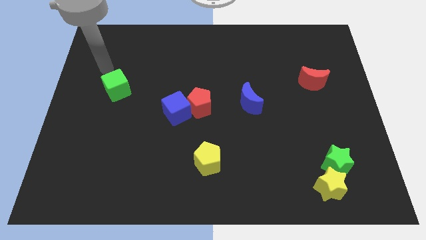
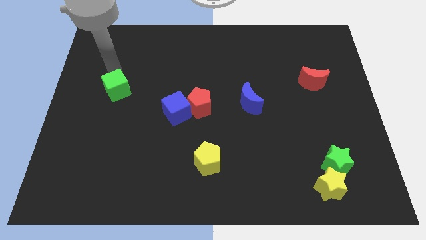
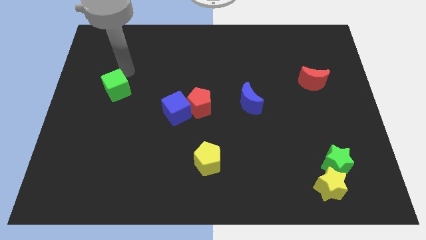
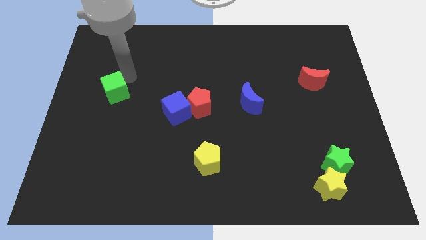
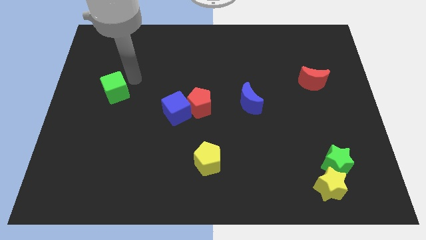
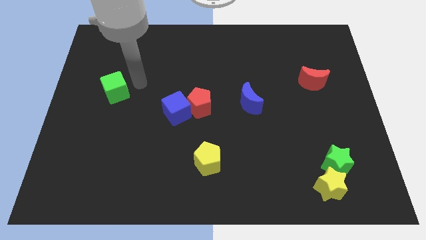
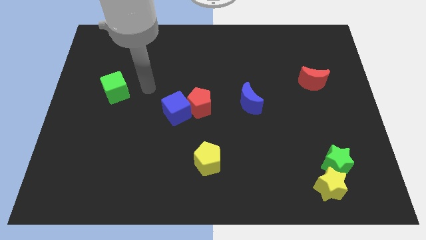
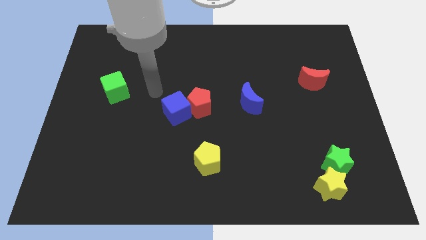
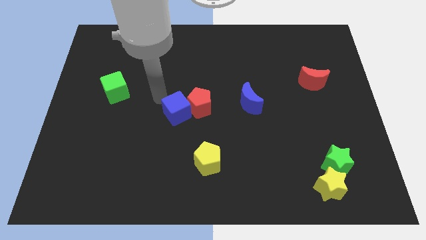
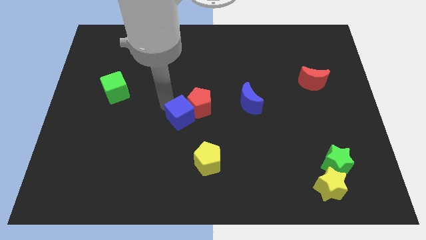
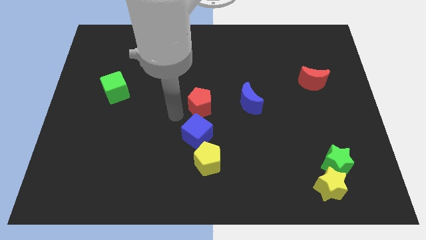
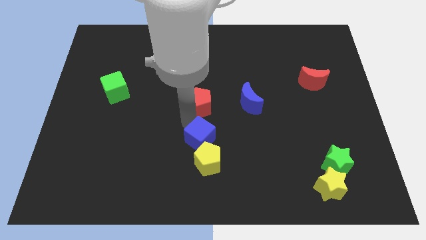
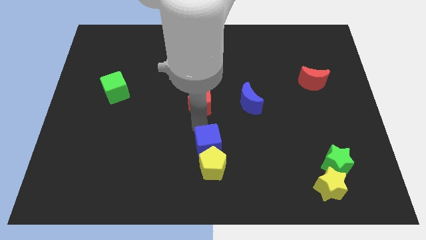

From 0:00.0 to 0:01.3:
pull the red pentagon apart from the blue cube

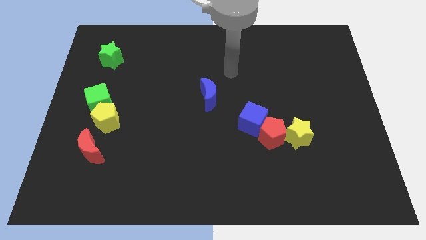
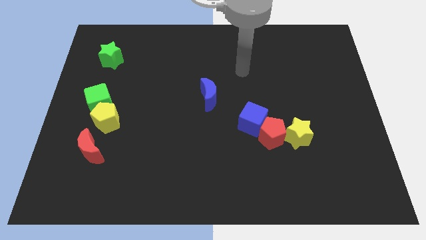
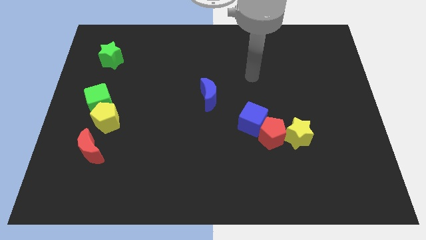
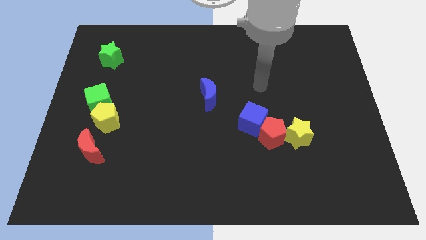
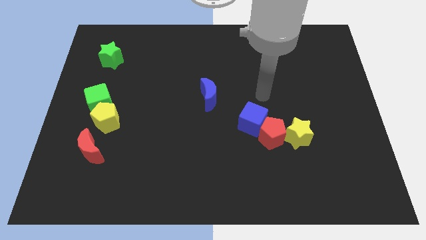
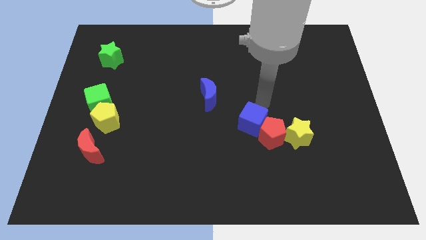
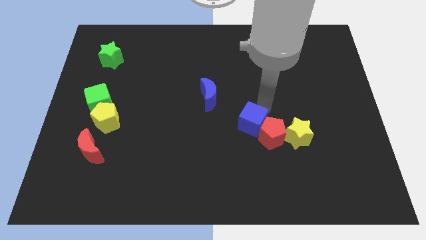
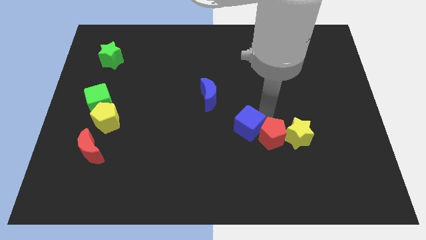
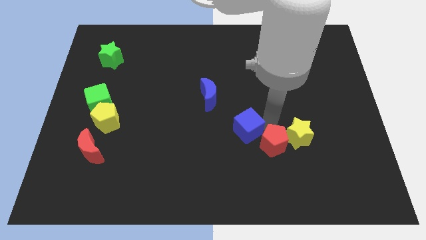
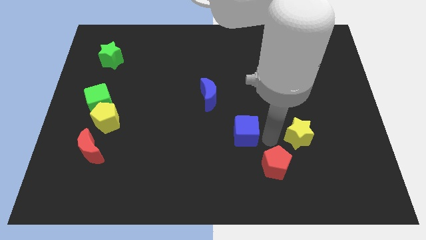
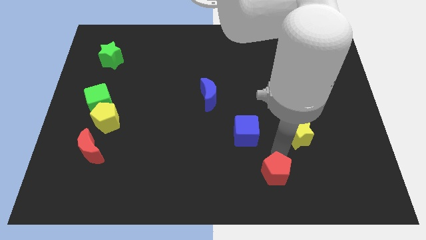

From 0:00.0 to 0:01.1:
separate the yellow star from the red pentagon

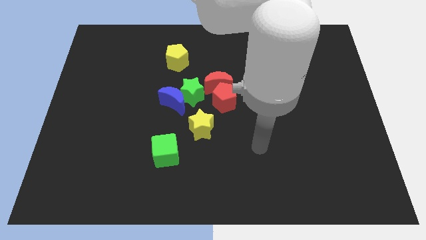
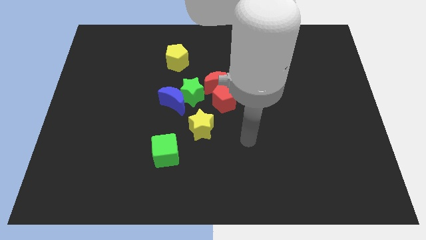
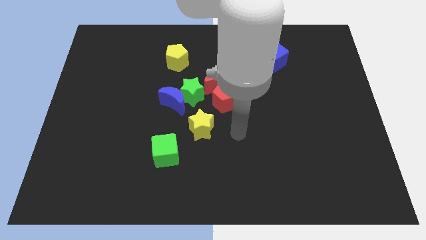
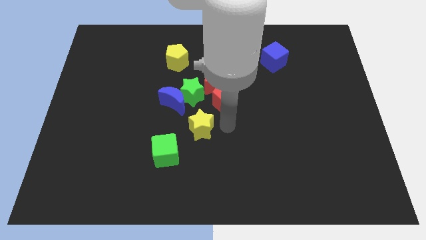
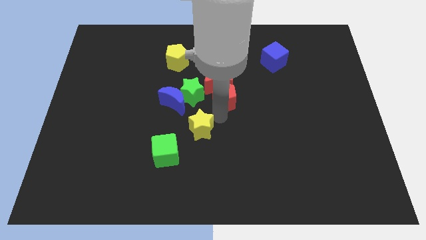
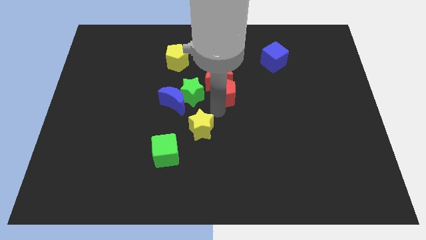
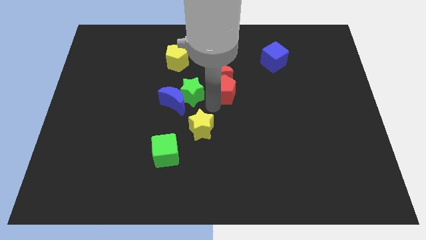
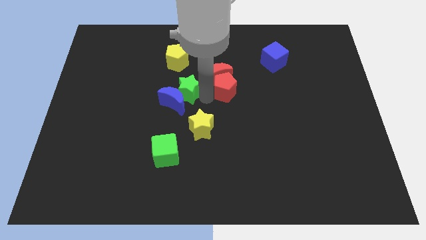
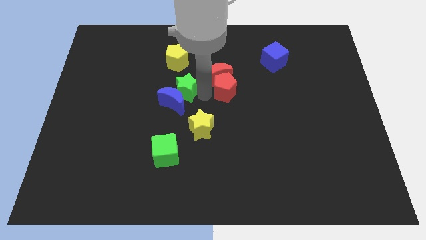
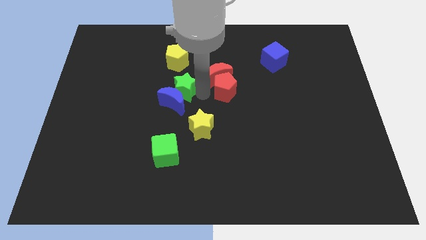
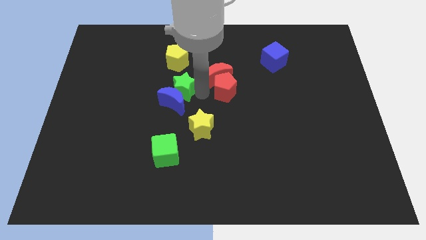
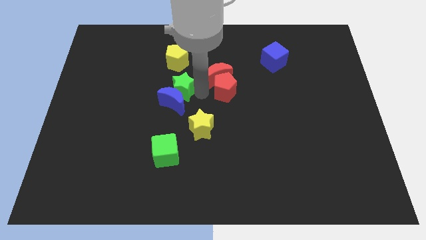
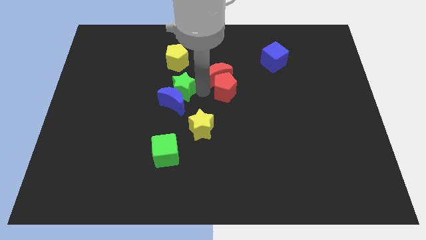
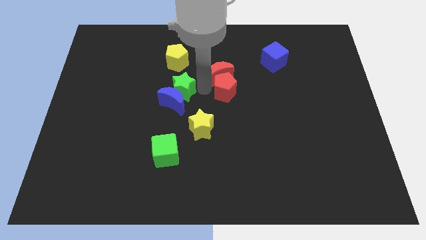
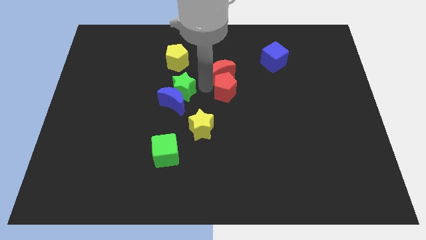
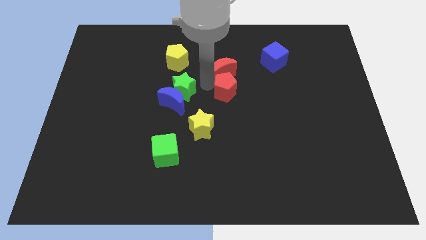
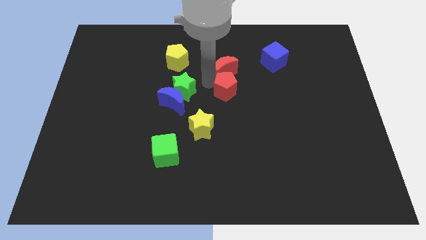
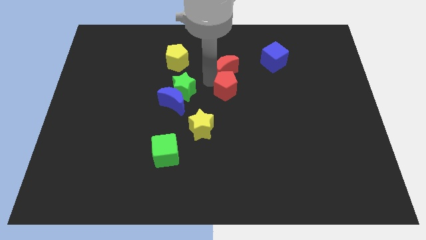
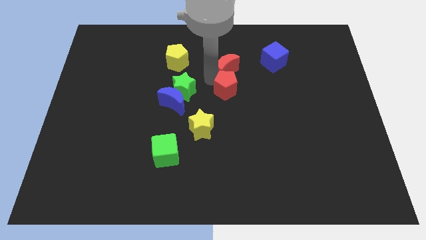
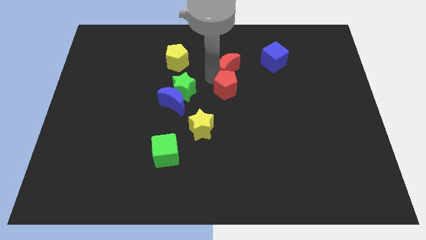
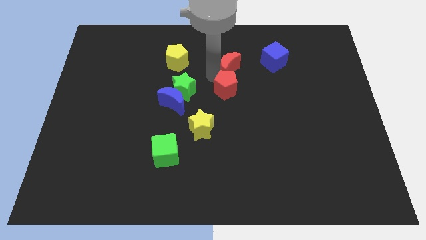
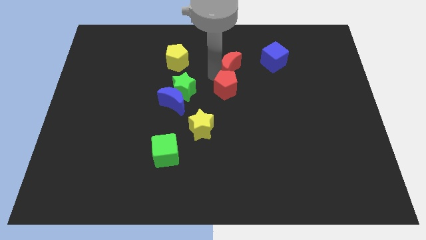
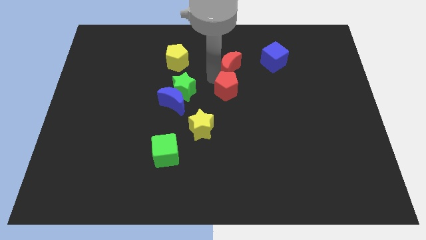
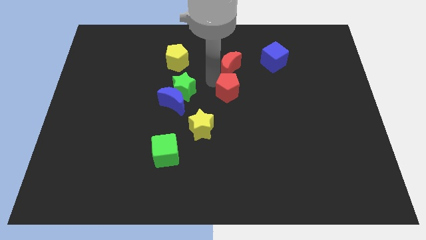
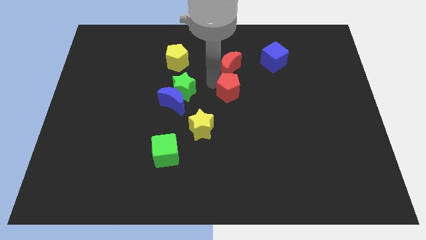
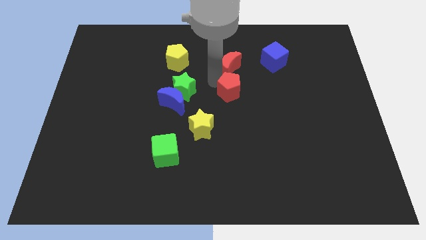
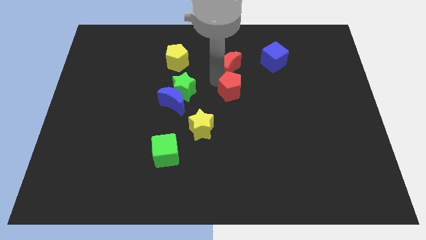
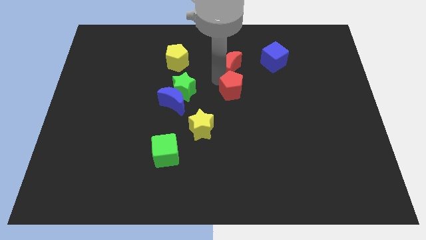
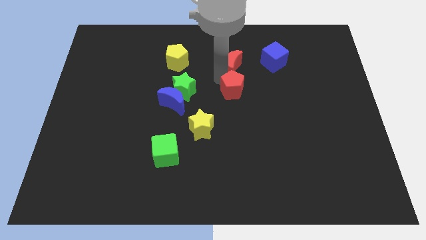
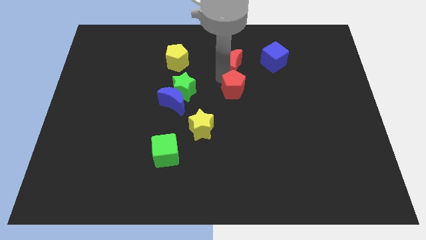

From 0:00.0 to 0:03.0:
pull the red moon apart from the red pentagon and green star

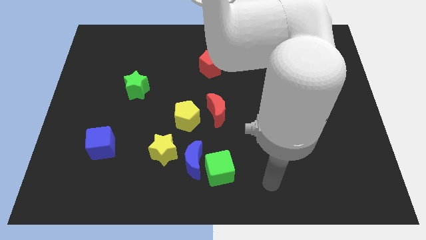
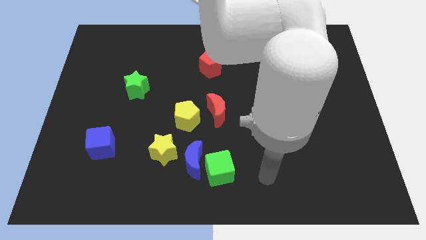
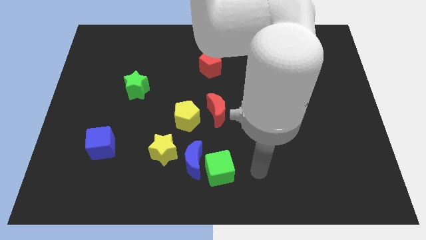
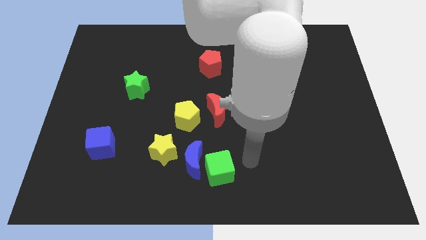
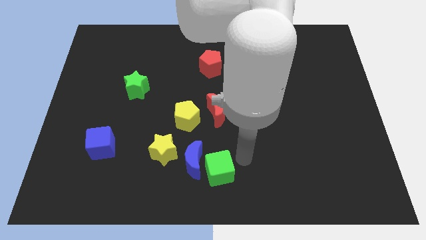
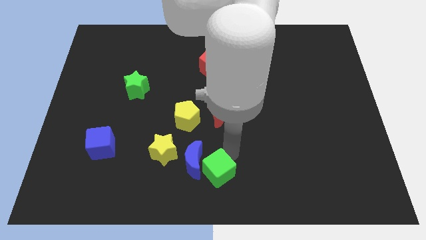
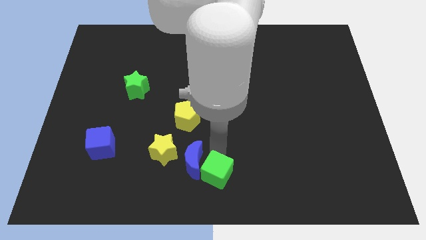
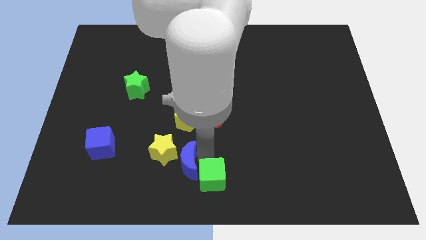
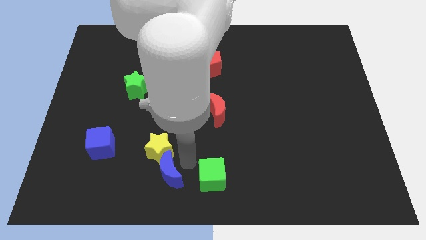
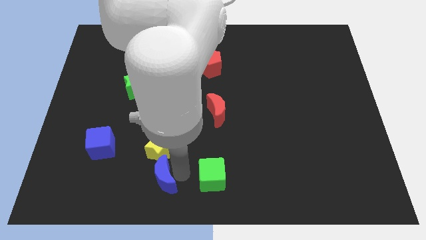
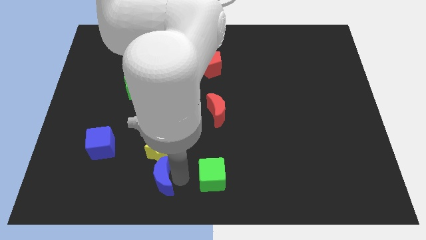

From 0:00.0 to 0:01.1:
move the green cube away from the blue moon

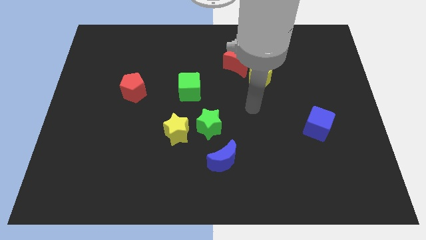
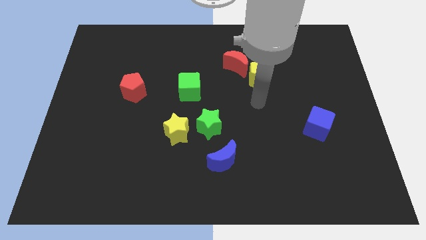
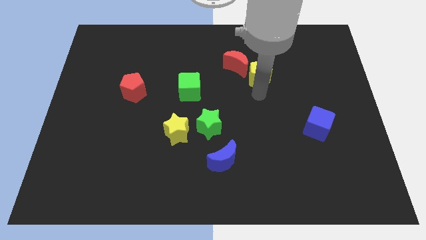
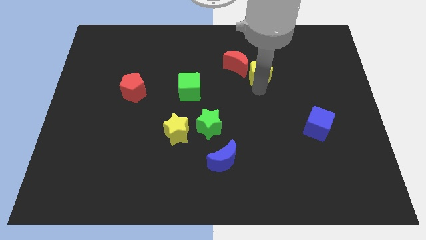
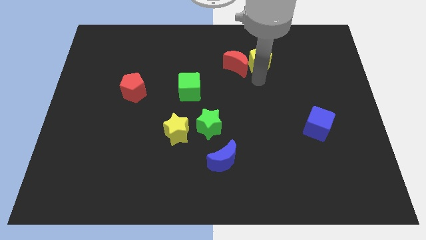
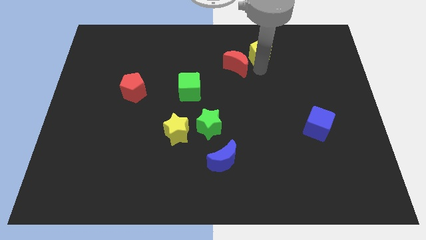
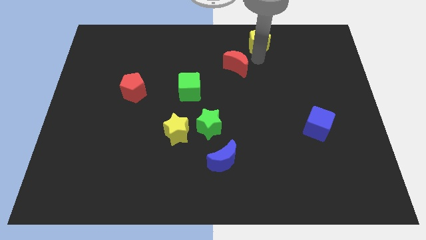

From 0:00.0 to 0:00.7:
separate the red moon from the yellow pentagon

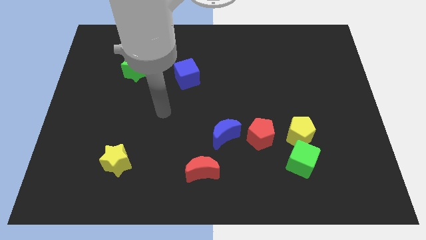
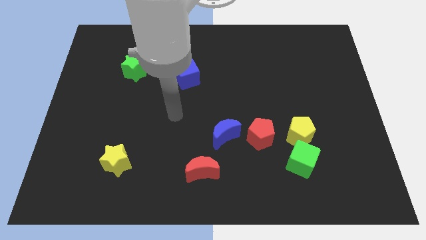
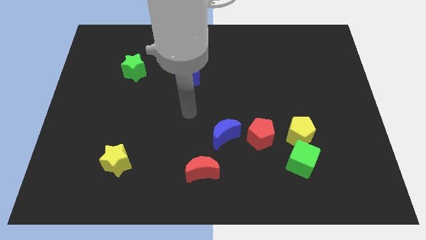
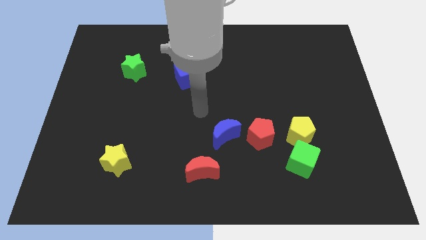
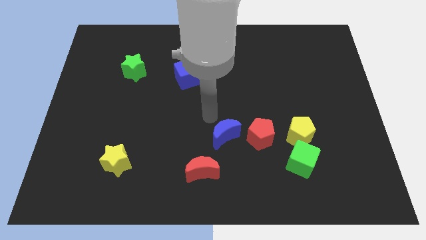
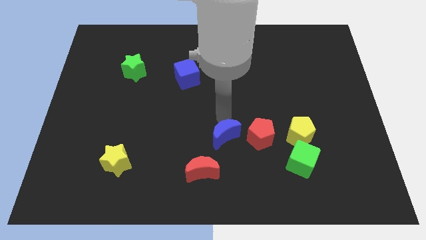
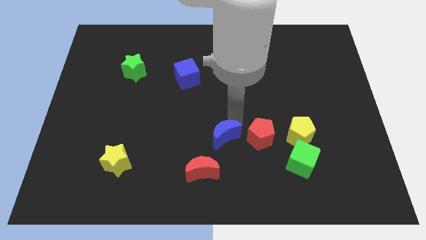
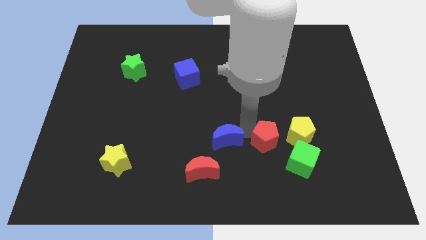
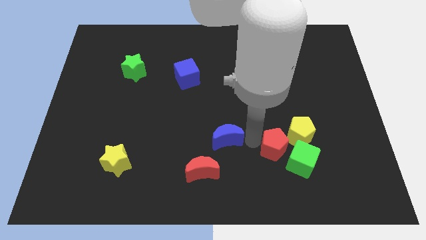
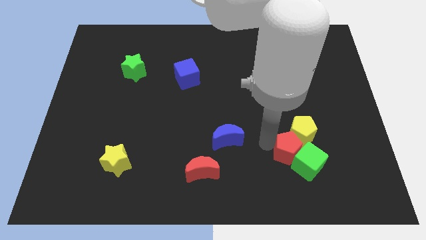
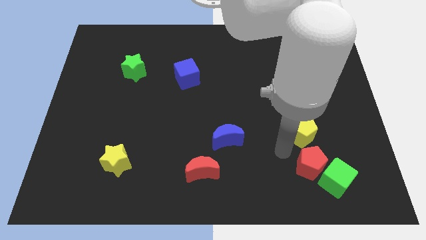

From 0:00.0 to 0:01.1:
pull the yellow pentagon apart from the green cube and red pentagon

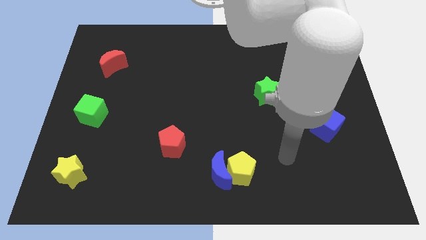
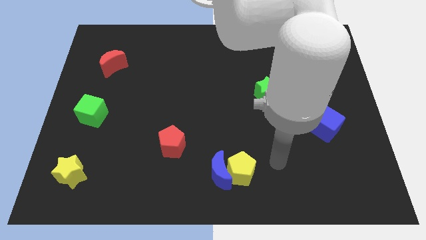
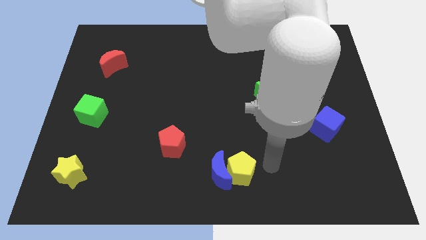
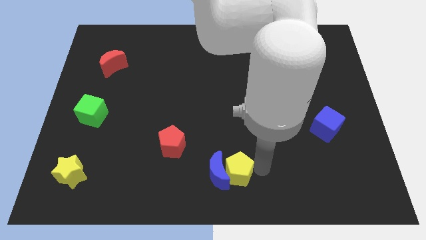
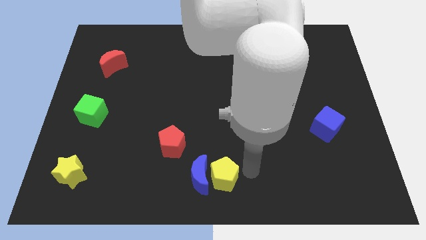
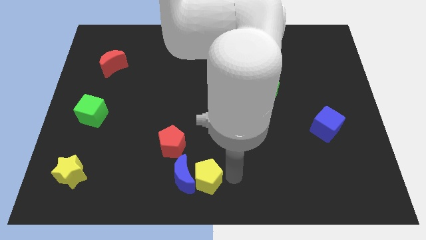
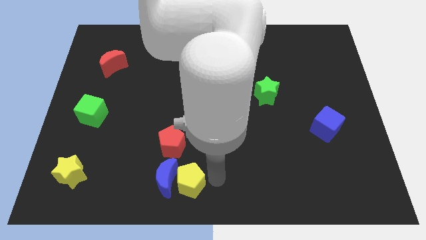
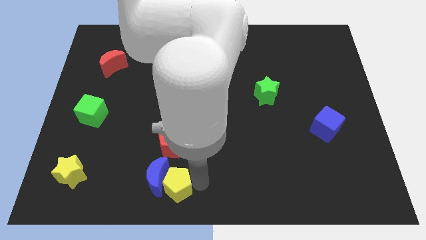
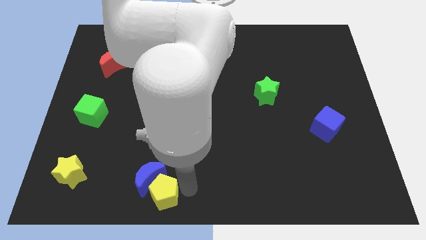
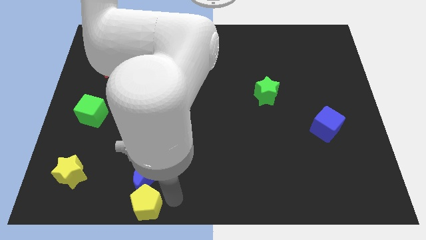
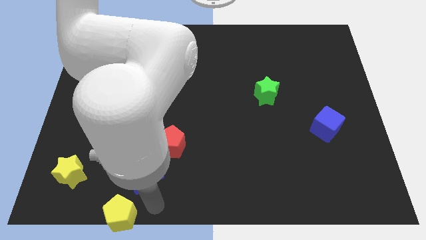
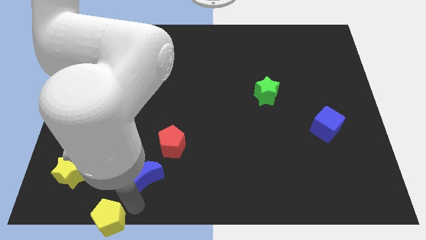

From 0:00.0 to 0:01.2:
move the blue moon away from the yellow pentagon

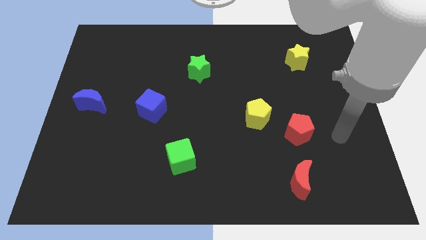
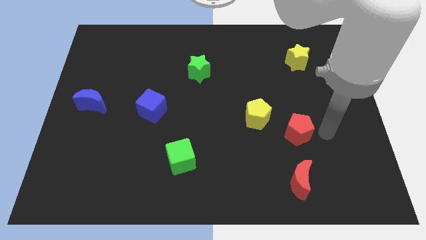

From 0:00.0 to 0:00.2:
separate the red pentagon from the yellow pentagon
